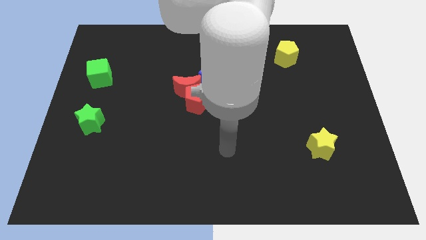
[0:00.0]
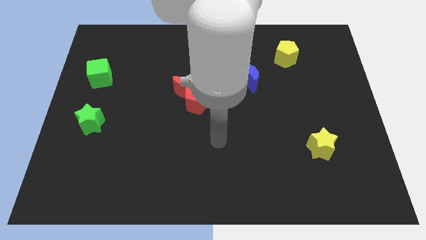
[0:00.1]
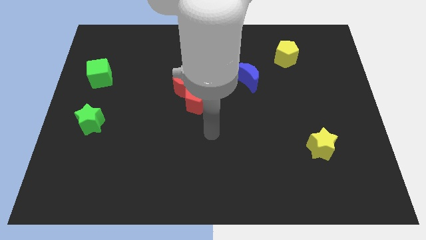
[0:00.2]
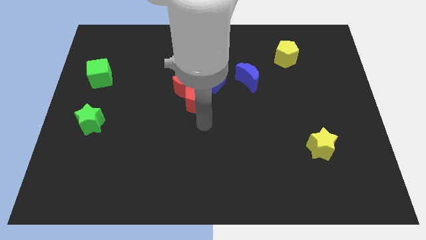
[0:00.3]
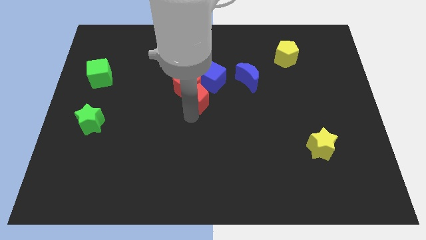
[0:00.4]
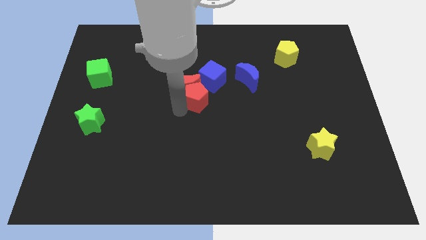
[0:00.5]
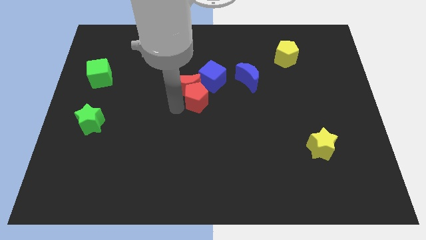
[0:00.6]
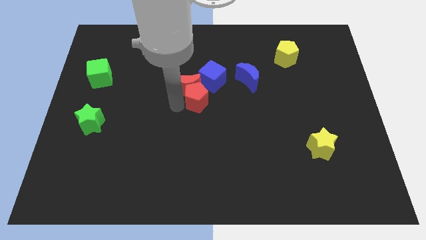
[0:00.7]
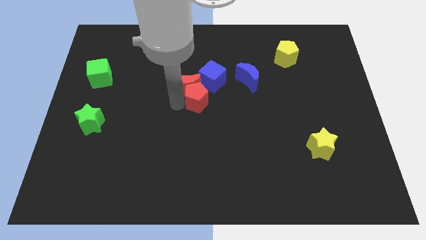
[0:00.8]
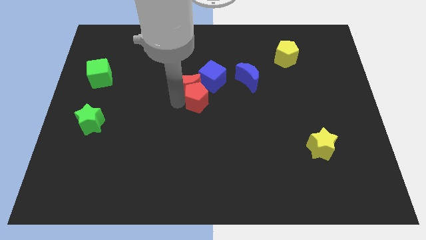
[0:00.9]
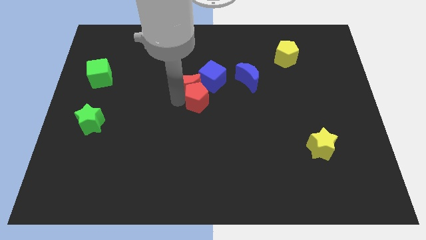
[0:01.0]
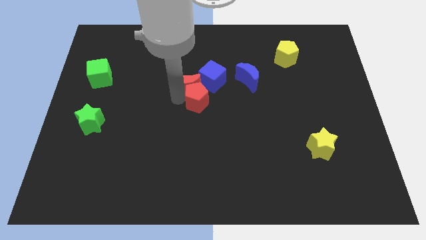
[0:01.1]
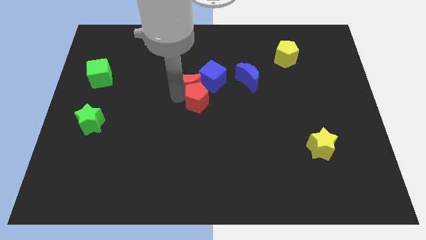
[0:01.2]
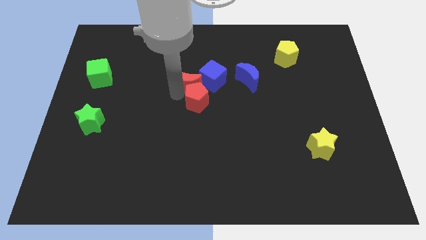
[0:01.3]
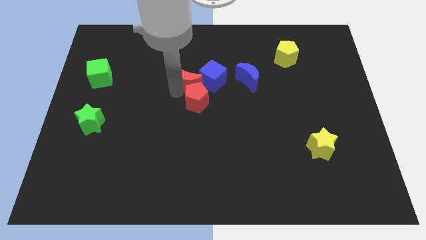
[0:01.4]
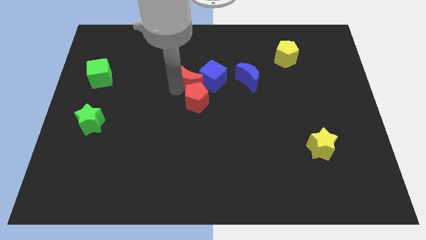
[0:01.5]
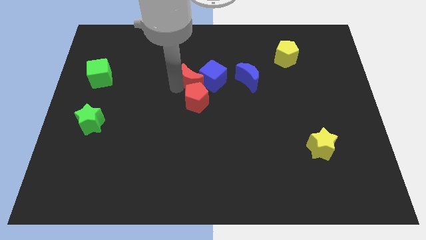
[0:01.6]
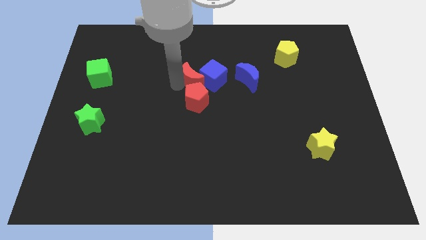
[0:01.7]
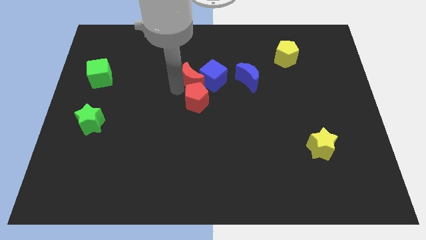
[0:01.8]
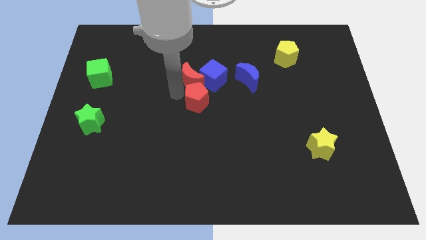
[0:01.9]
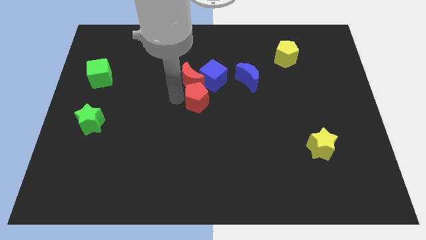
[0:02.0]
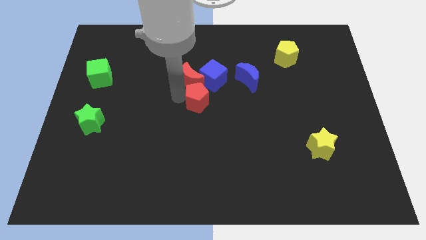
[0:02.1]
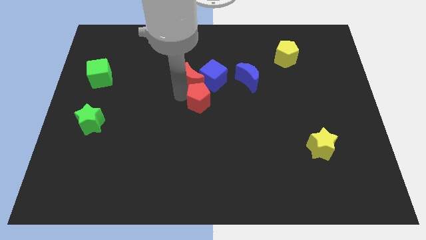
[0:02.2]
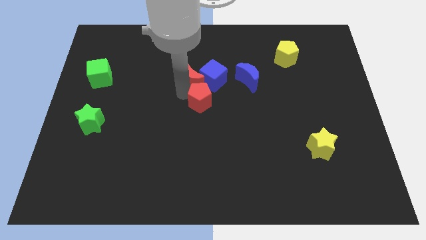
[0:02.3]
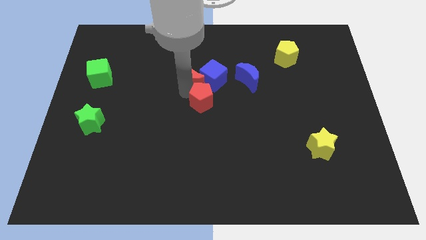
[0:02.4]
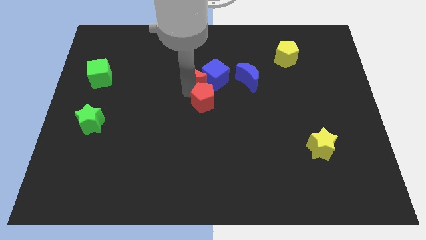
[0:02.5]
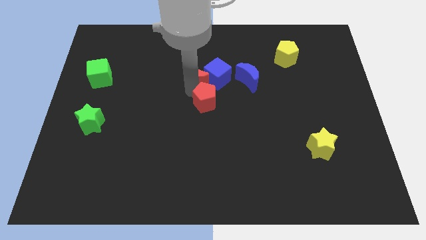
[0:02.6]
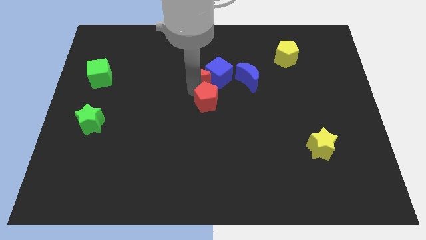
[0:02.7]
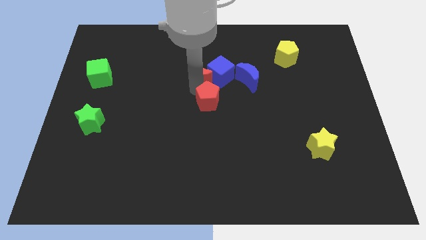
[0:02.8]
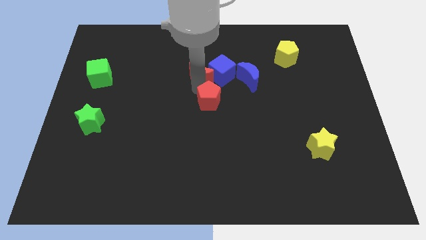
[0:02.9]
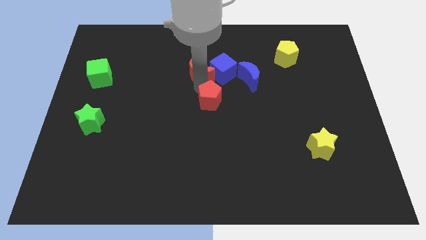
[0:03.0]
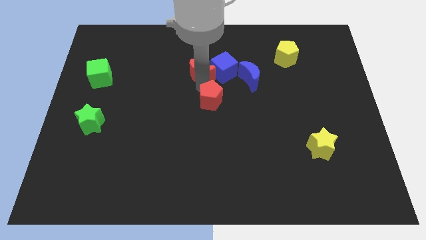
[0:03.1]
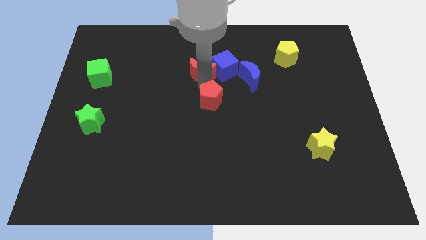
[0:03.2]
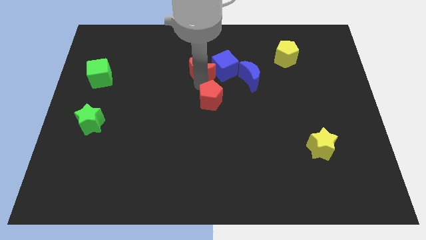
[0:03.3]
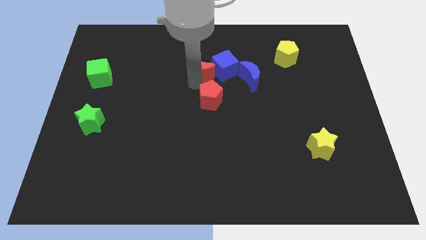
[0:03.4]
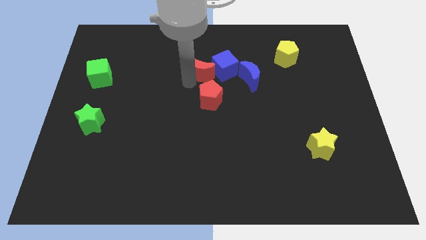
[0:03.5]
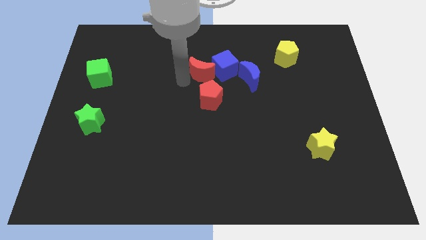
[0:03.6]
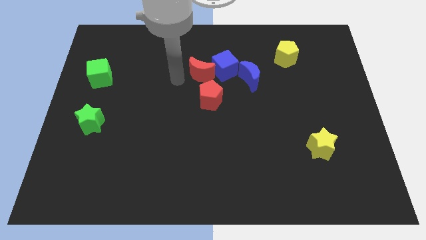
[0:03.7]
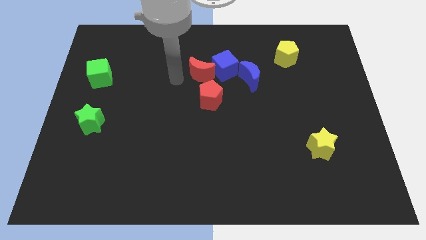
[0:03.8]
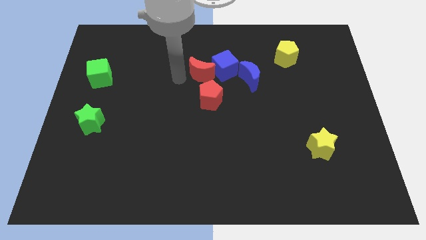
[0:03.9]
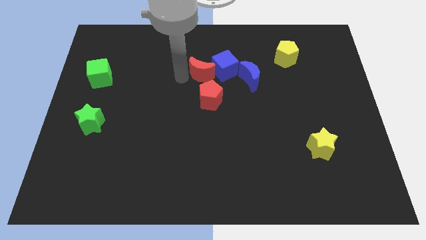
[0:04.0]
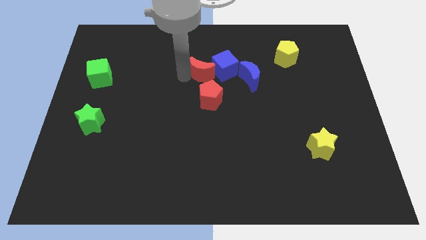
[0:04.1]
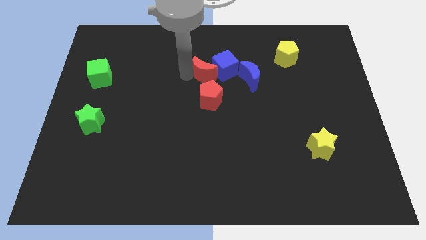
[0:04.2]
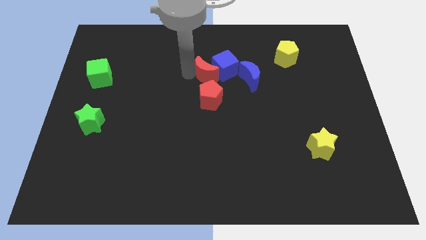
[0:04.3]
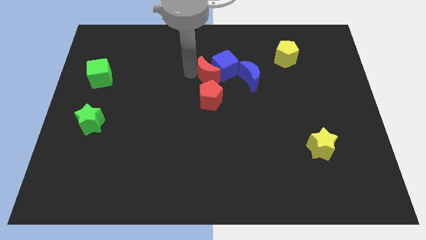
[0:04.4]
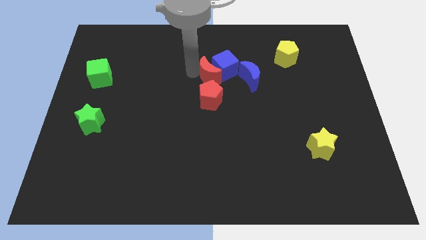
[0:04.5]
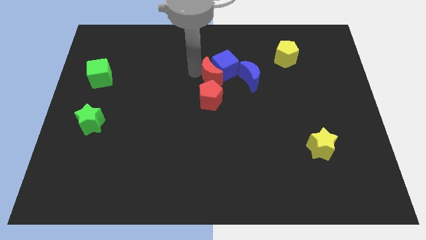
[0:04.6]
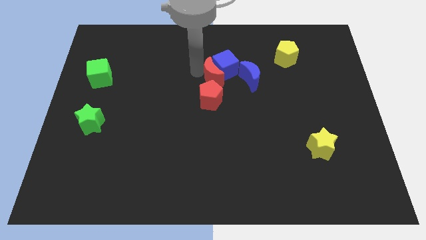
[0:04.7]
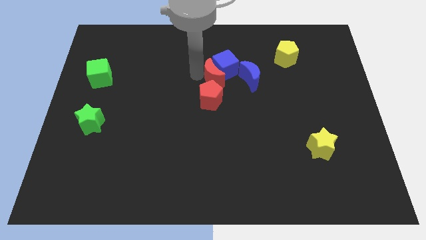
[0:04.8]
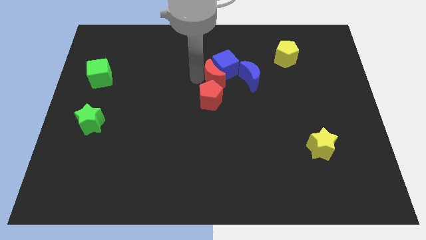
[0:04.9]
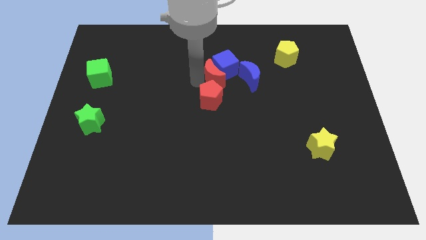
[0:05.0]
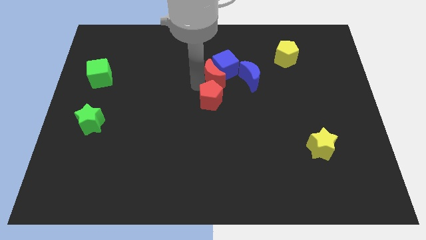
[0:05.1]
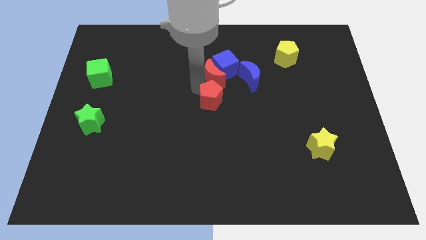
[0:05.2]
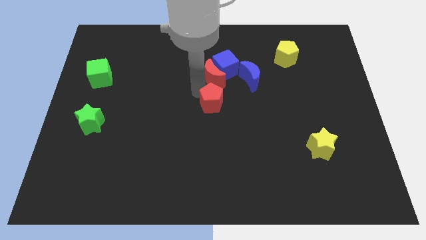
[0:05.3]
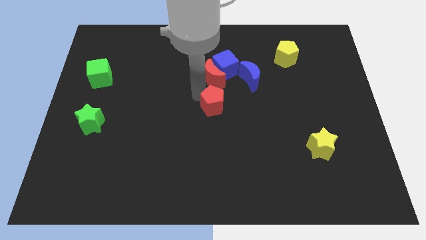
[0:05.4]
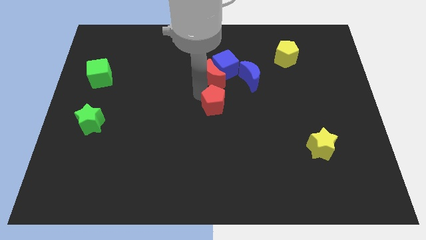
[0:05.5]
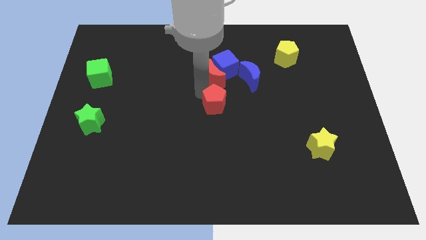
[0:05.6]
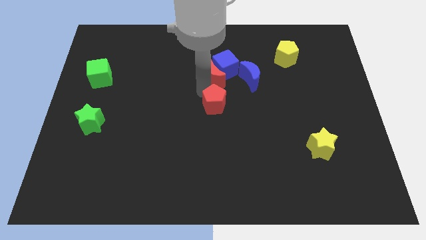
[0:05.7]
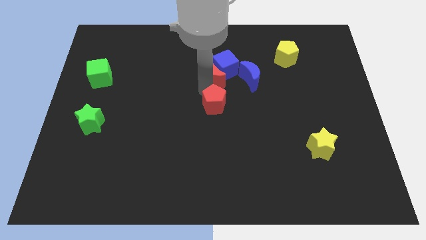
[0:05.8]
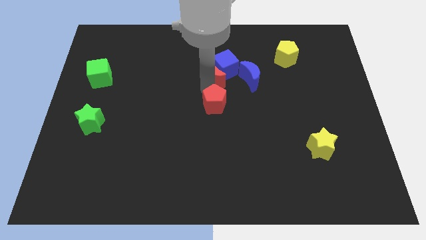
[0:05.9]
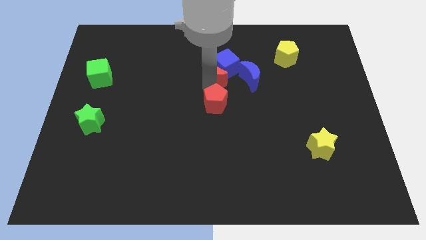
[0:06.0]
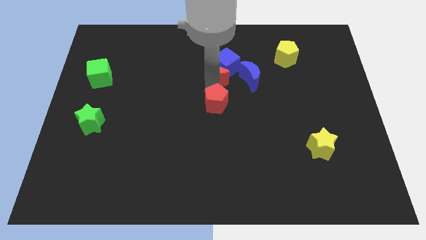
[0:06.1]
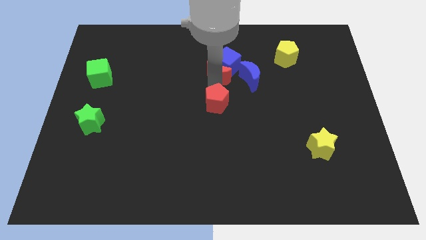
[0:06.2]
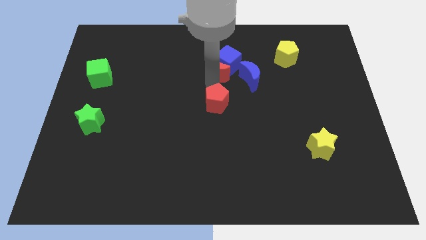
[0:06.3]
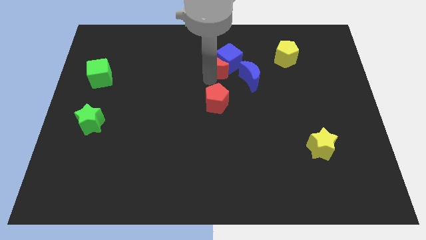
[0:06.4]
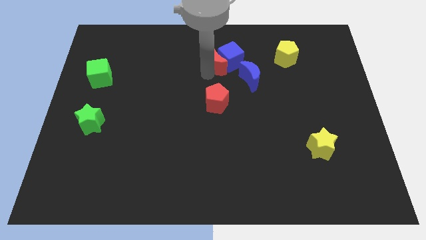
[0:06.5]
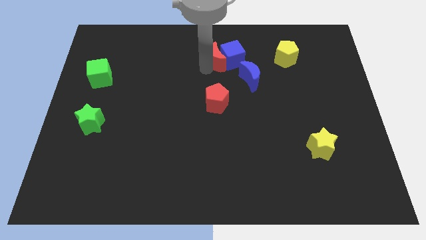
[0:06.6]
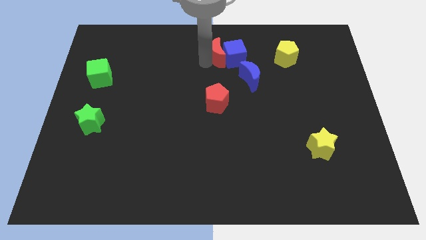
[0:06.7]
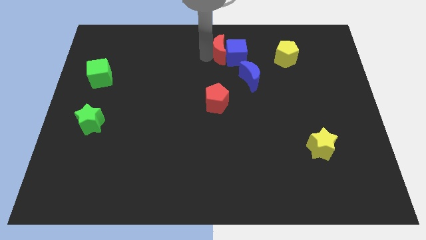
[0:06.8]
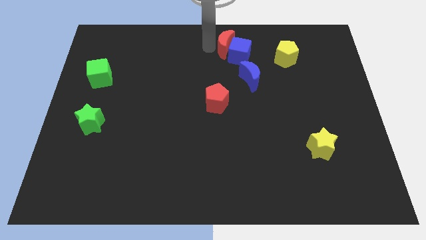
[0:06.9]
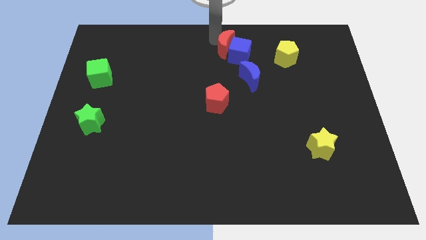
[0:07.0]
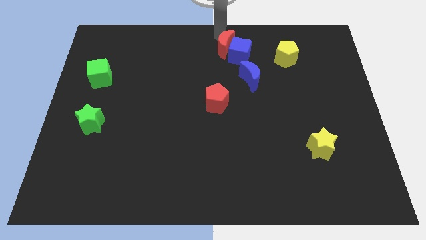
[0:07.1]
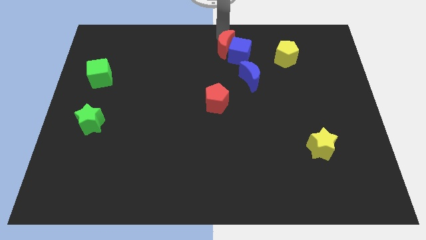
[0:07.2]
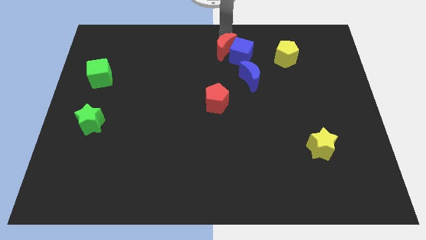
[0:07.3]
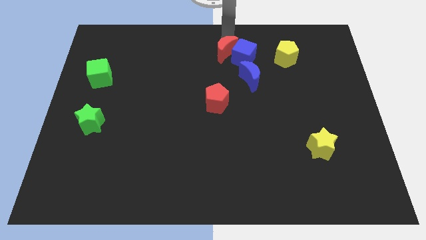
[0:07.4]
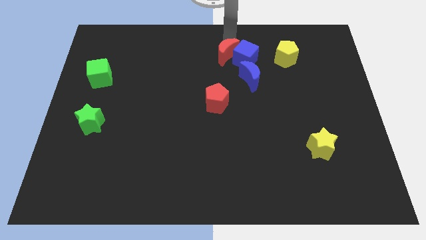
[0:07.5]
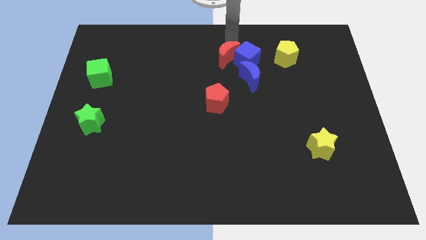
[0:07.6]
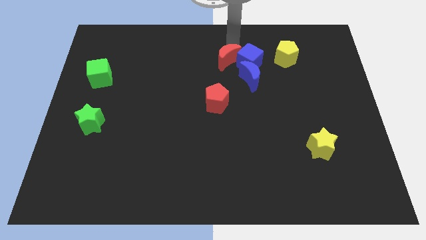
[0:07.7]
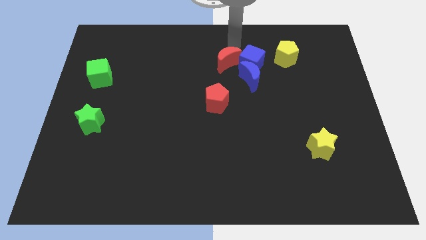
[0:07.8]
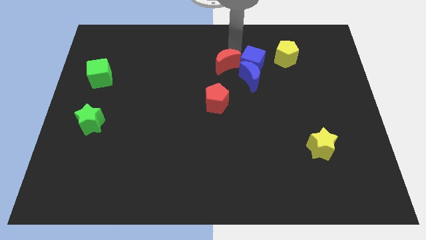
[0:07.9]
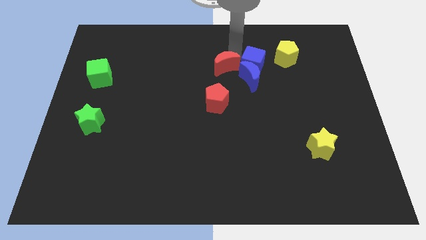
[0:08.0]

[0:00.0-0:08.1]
slightly push the red moon to the right
